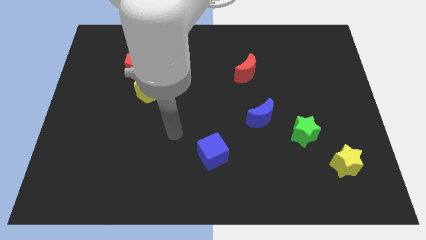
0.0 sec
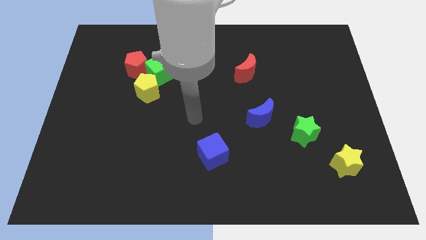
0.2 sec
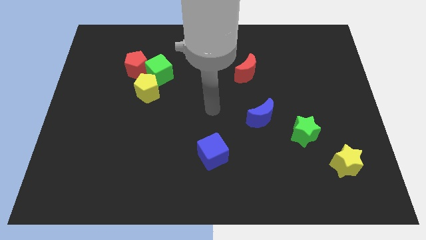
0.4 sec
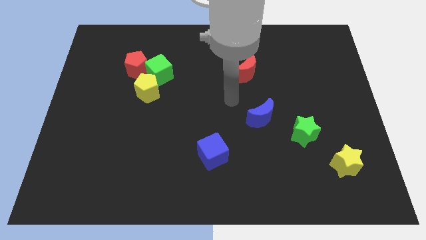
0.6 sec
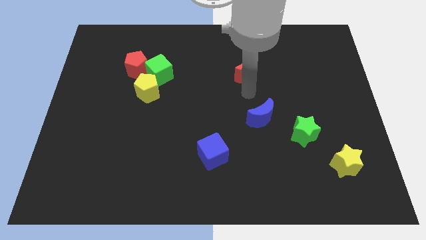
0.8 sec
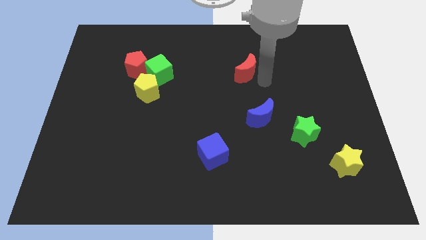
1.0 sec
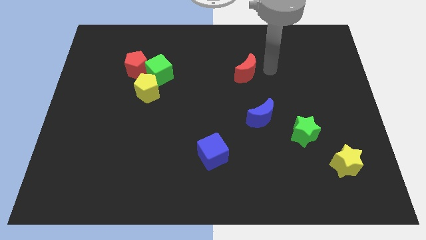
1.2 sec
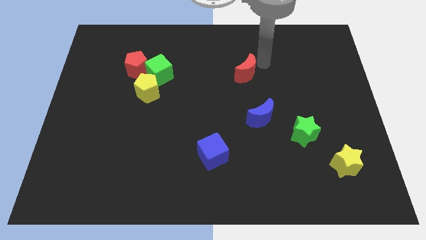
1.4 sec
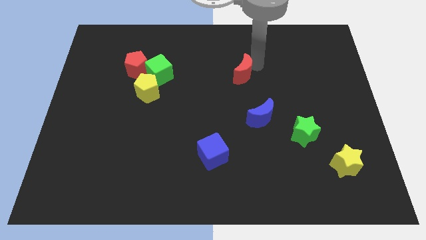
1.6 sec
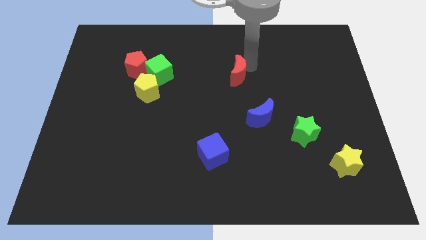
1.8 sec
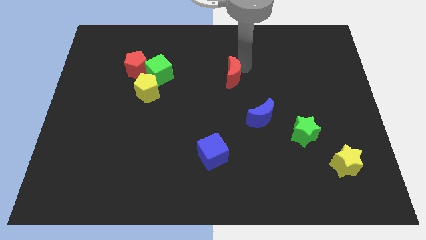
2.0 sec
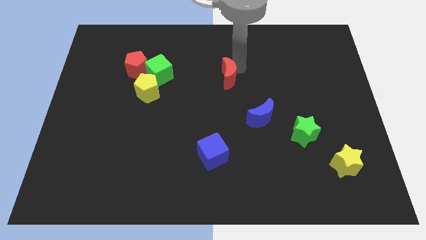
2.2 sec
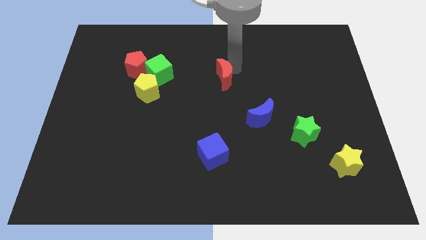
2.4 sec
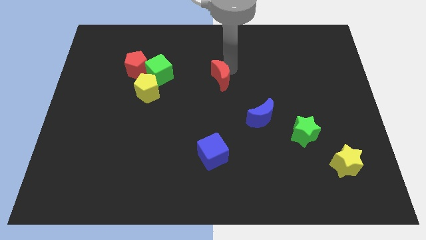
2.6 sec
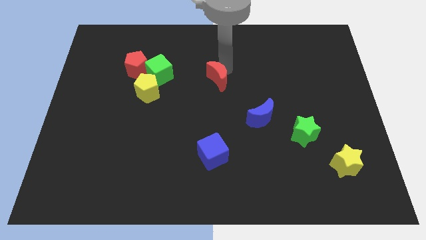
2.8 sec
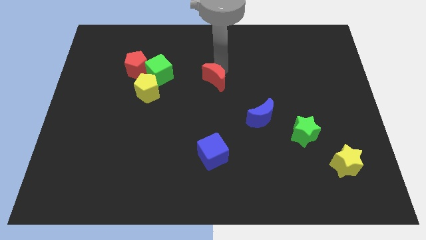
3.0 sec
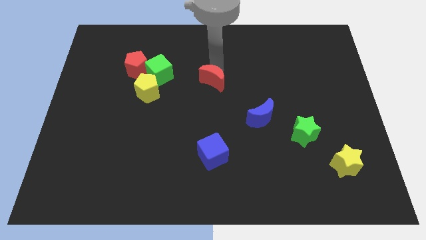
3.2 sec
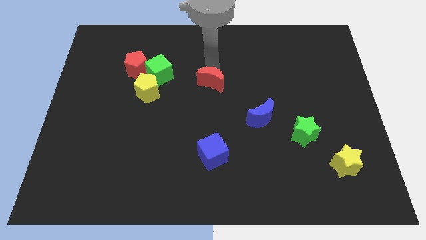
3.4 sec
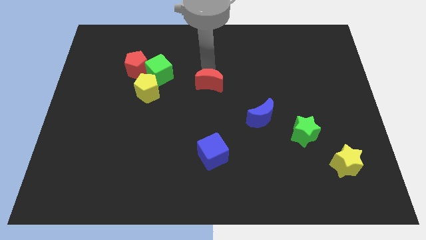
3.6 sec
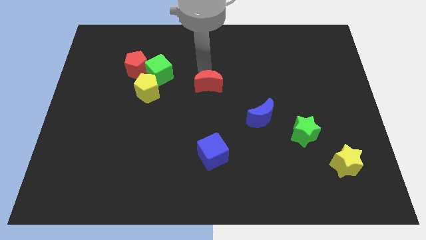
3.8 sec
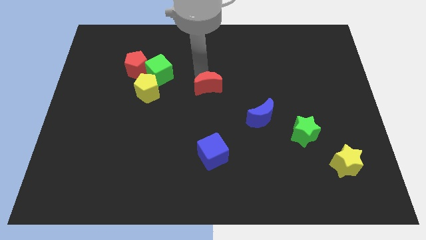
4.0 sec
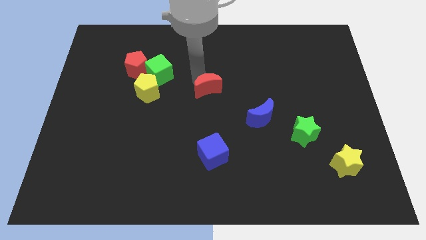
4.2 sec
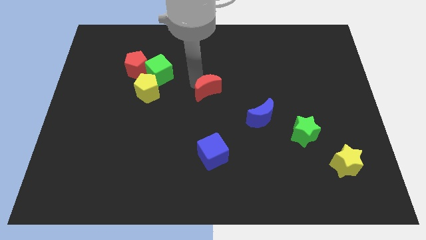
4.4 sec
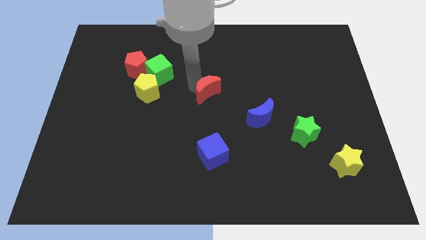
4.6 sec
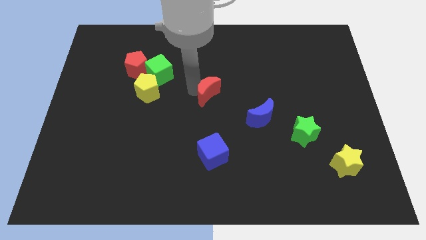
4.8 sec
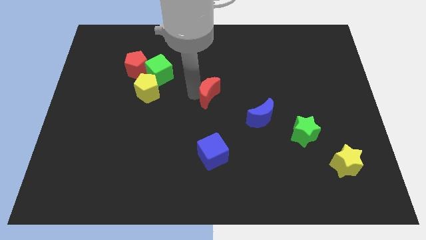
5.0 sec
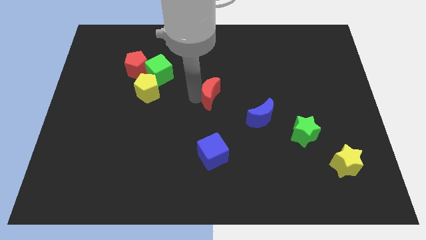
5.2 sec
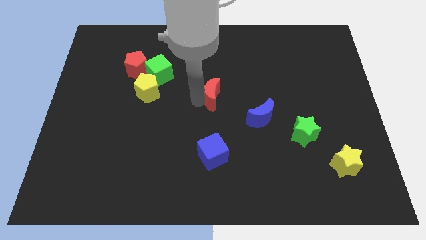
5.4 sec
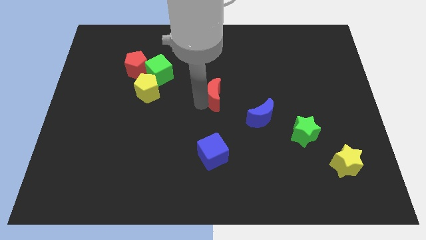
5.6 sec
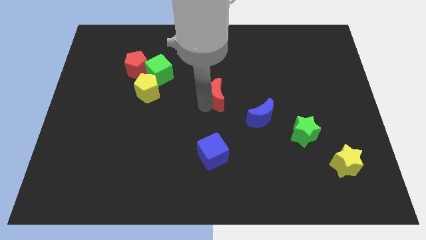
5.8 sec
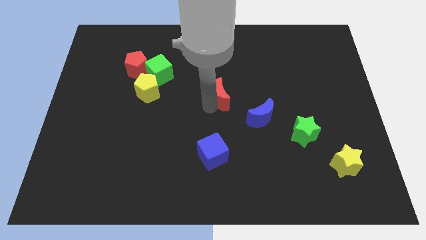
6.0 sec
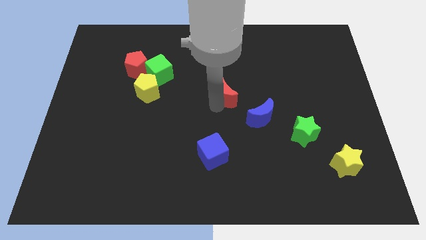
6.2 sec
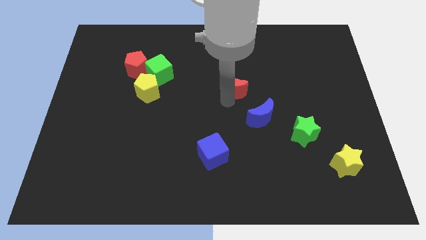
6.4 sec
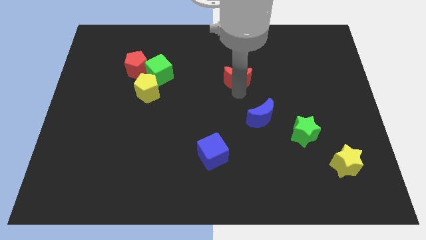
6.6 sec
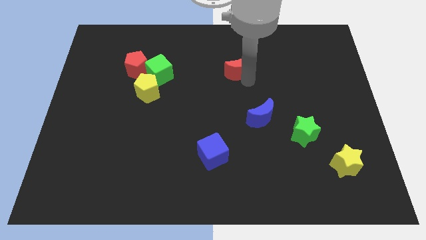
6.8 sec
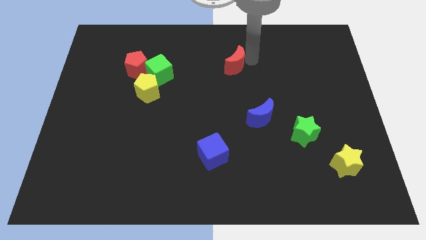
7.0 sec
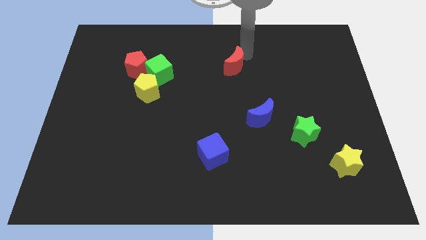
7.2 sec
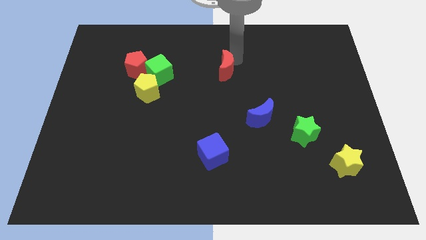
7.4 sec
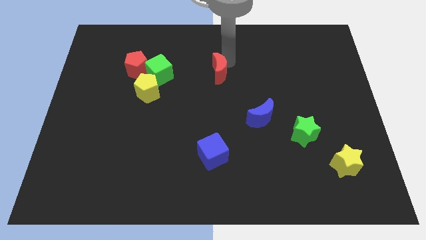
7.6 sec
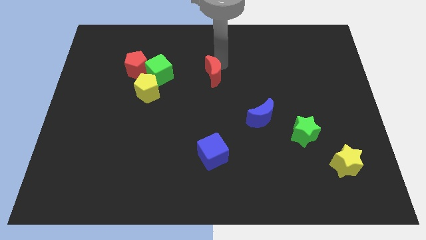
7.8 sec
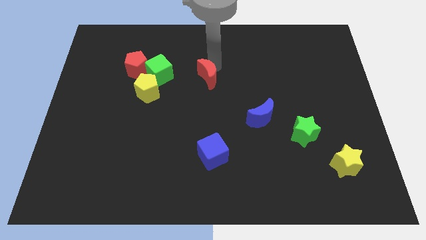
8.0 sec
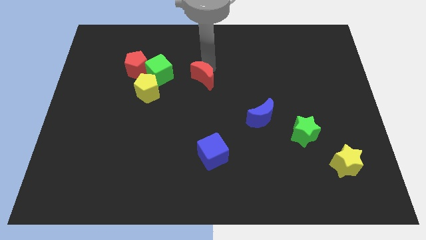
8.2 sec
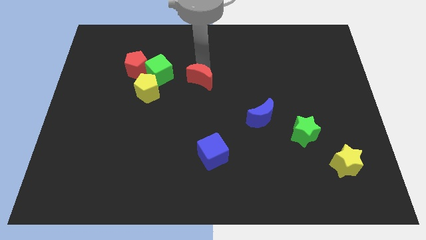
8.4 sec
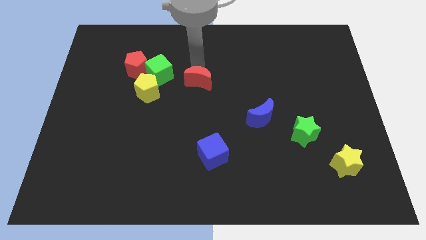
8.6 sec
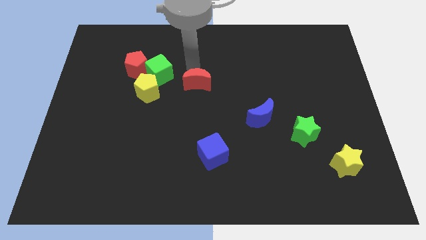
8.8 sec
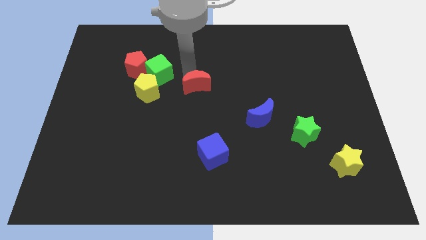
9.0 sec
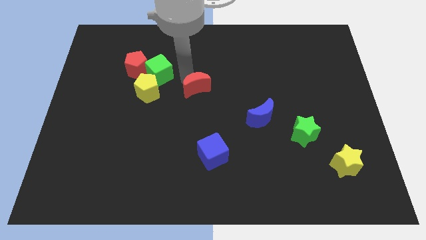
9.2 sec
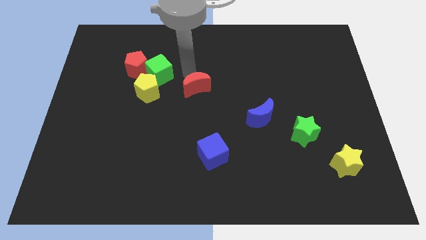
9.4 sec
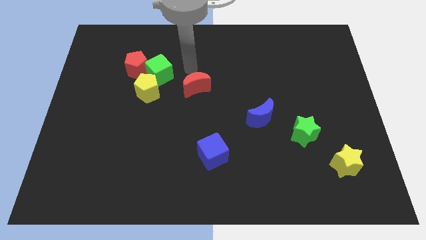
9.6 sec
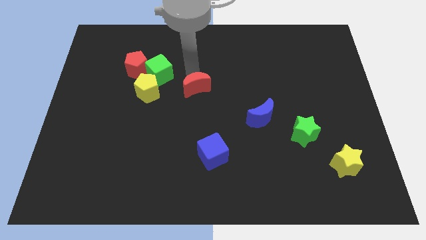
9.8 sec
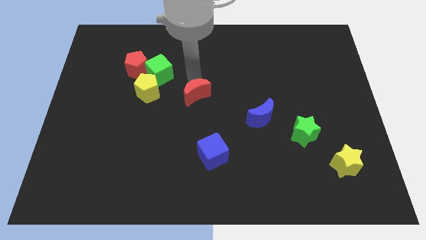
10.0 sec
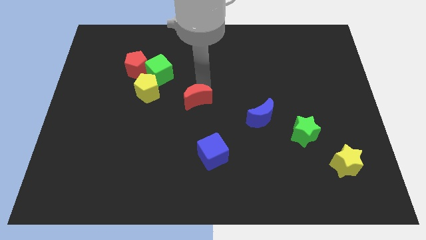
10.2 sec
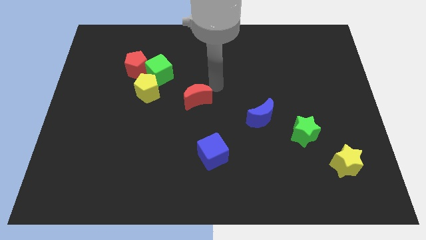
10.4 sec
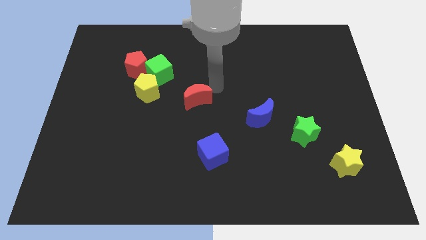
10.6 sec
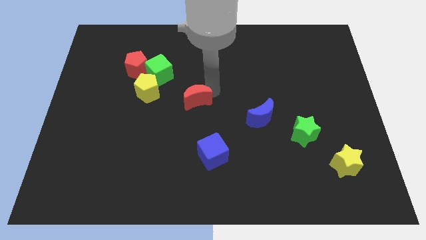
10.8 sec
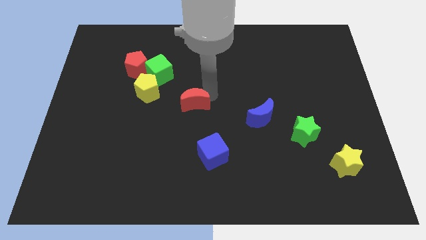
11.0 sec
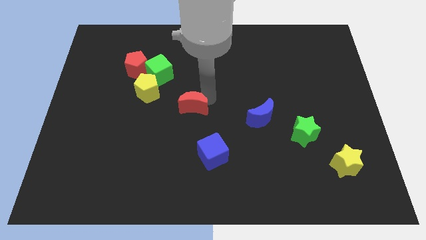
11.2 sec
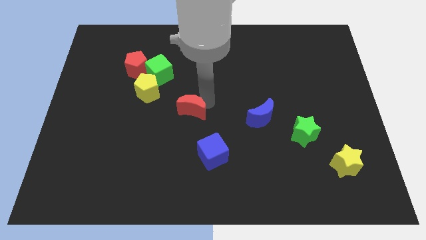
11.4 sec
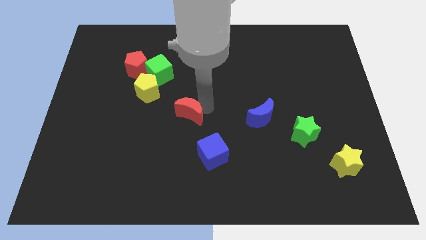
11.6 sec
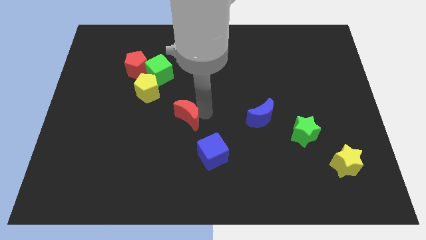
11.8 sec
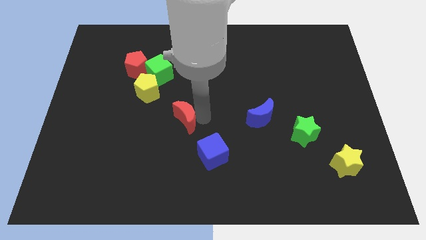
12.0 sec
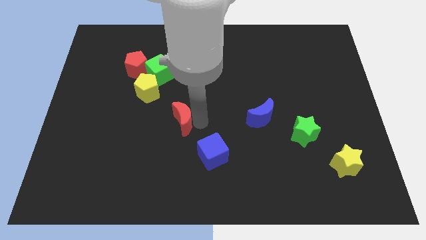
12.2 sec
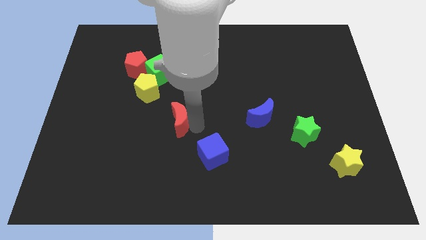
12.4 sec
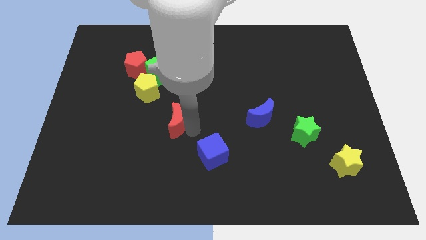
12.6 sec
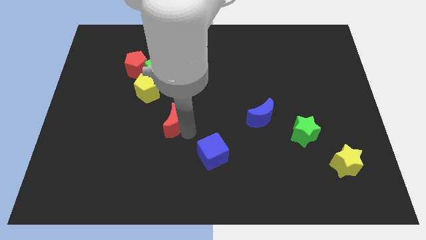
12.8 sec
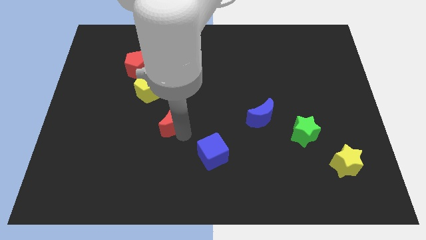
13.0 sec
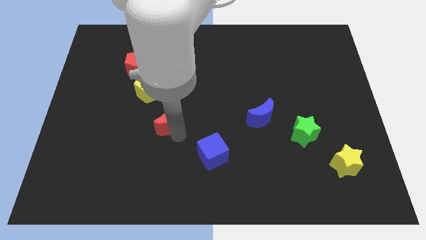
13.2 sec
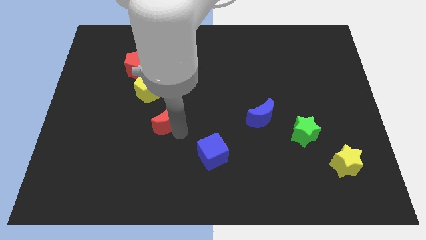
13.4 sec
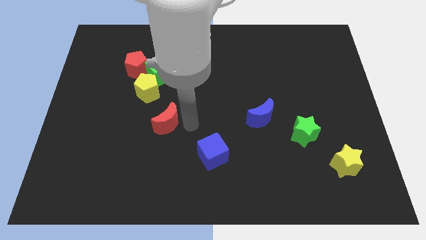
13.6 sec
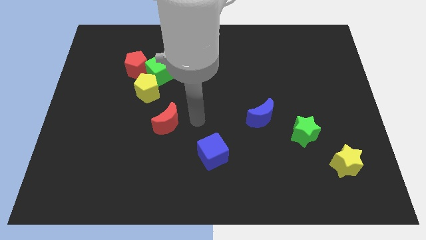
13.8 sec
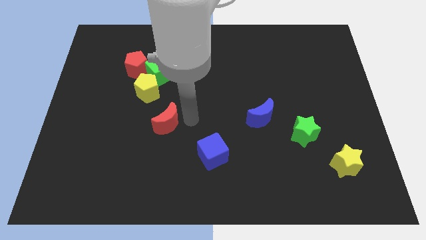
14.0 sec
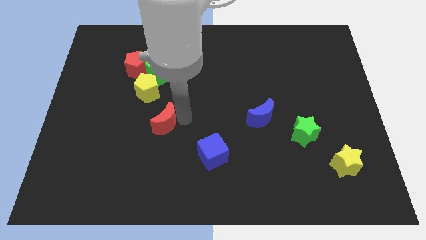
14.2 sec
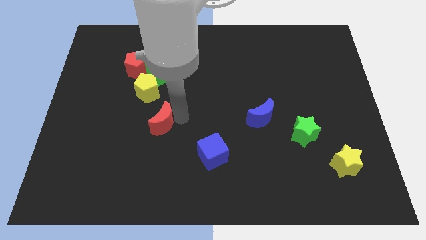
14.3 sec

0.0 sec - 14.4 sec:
slide the red moon below the yellow pentagon

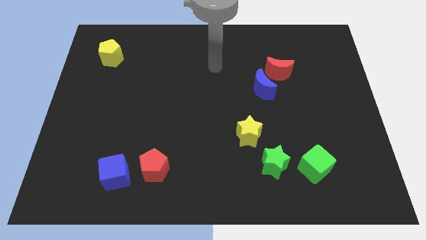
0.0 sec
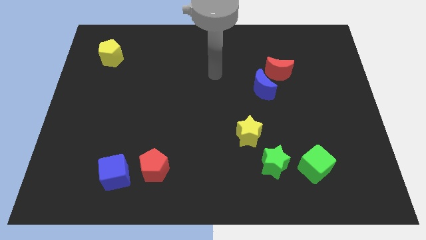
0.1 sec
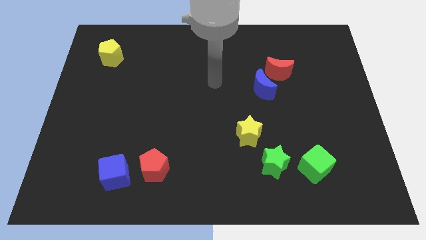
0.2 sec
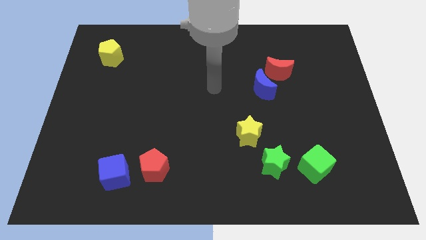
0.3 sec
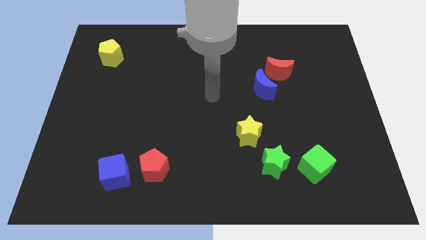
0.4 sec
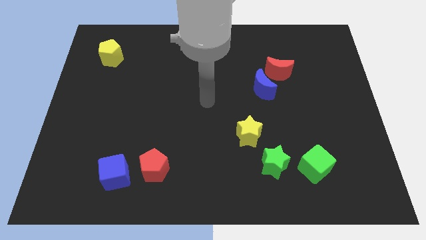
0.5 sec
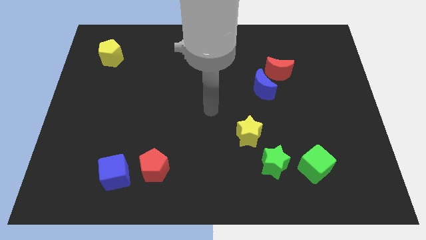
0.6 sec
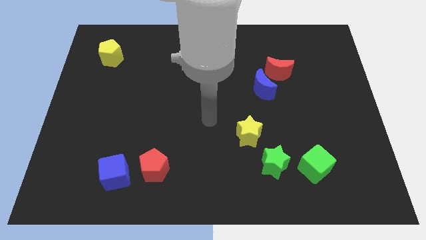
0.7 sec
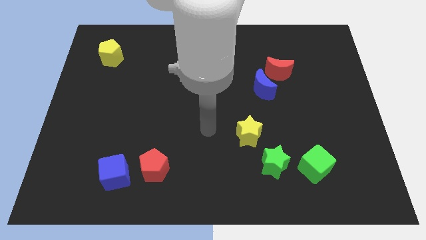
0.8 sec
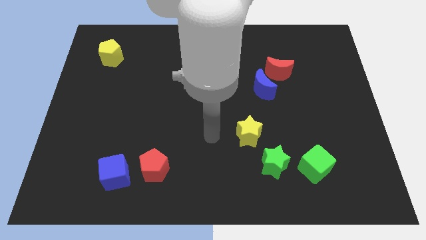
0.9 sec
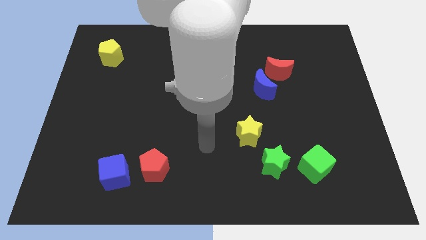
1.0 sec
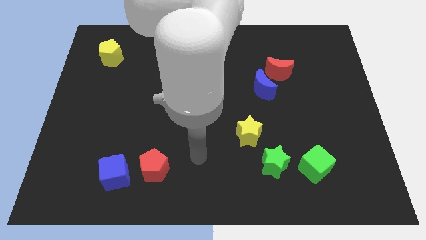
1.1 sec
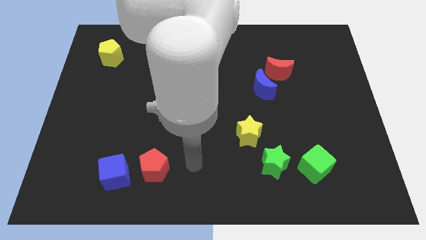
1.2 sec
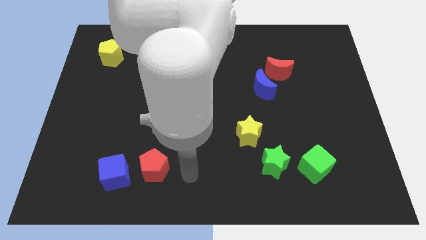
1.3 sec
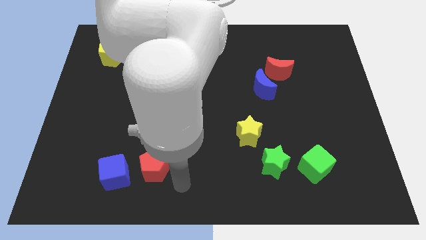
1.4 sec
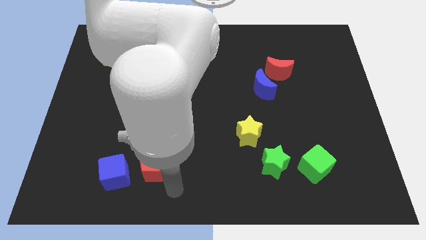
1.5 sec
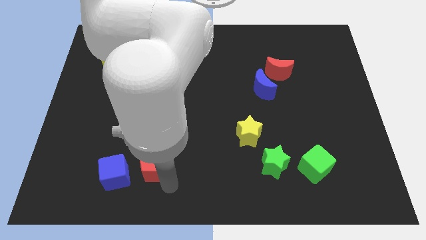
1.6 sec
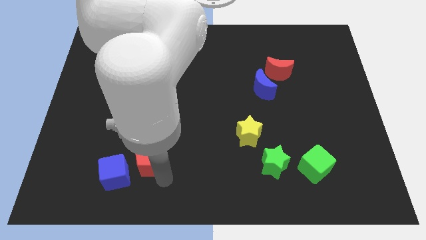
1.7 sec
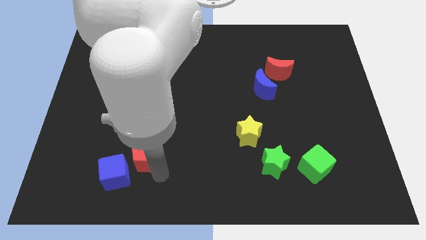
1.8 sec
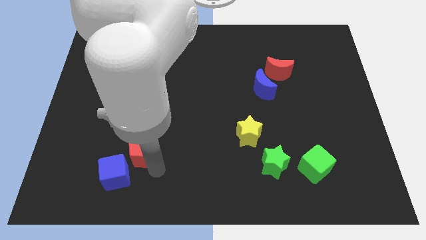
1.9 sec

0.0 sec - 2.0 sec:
move the red pentagon to the top side of the blue cube
